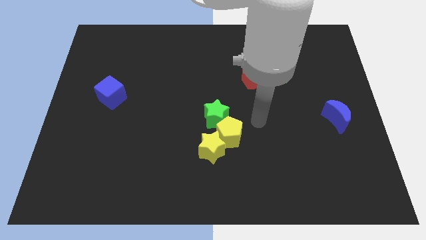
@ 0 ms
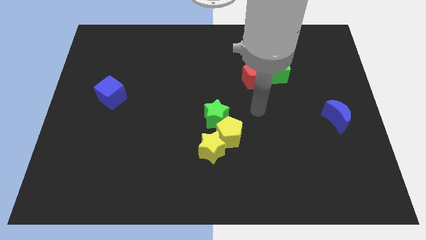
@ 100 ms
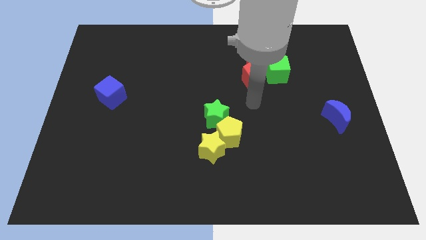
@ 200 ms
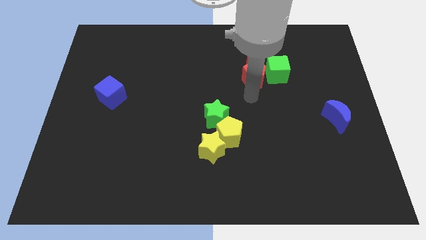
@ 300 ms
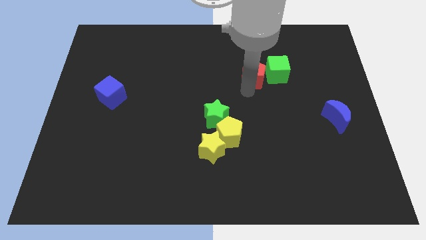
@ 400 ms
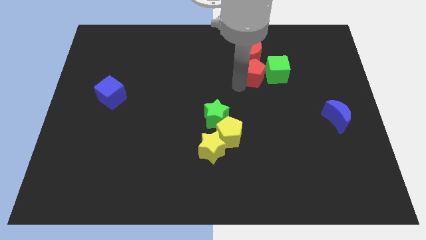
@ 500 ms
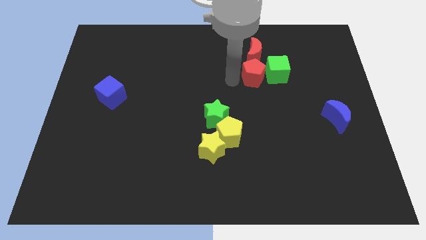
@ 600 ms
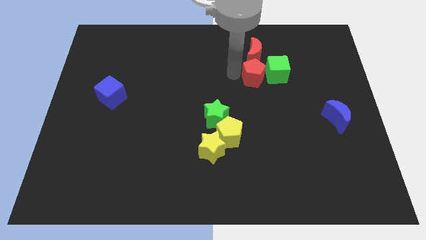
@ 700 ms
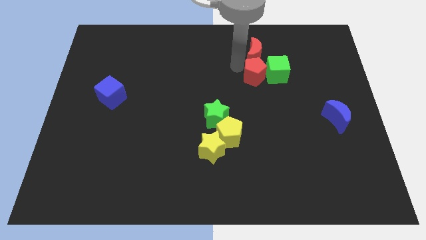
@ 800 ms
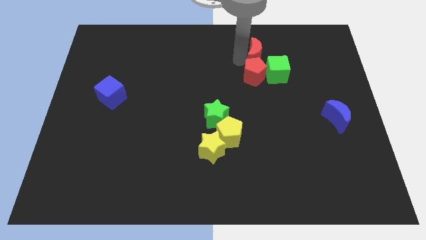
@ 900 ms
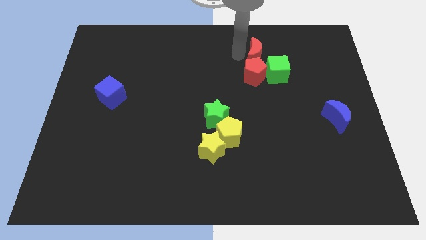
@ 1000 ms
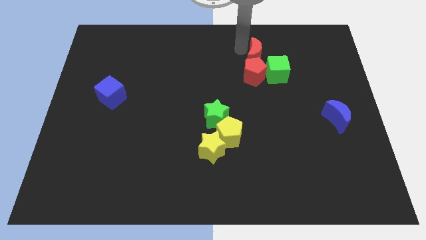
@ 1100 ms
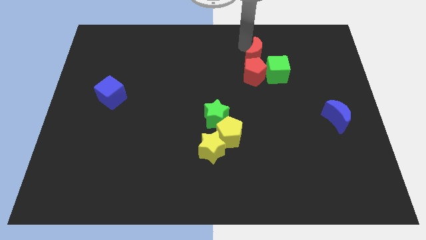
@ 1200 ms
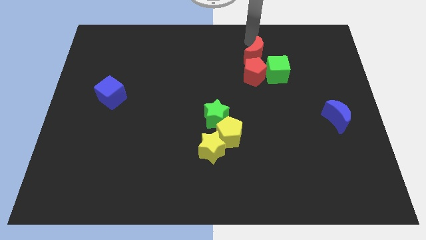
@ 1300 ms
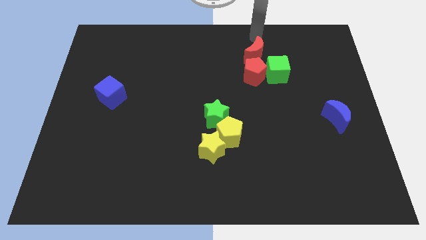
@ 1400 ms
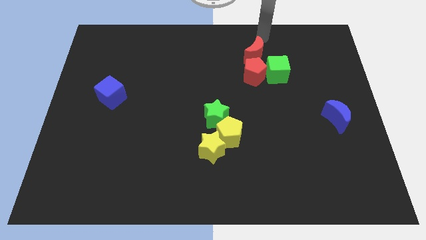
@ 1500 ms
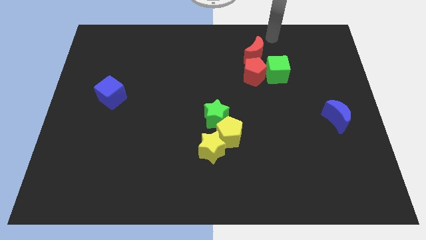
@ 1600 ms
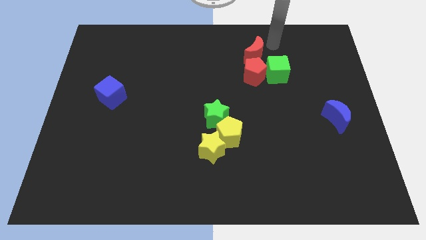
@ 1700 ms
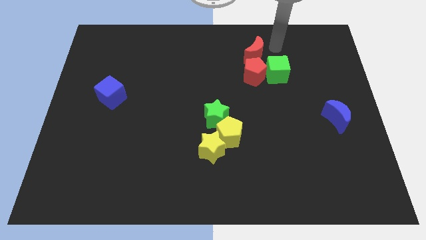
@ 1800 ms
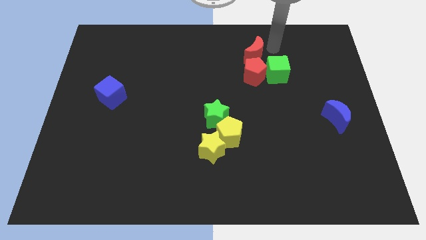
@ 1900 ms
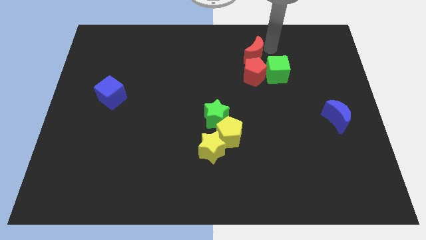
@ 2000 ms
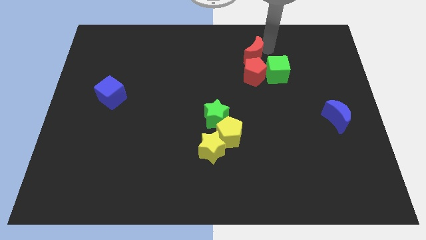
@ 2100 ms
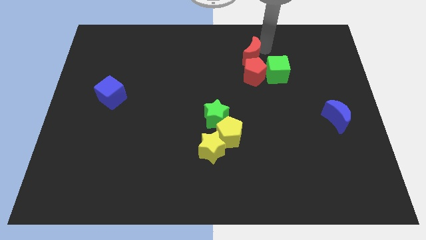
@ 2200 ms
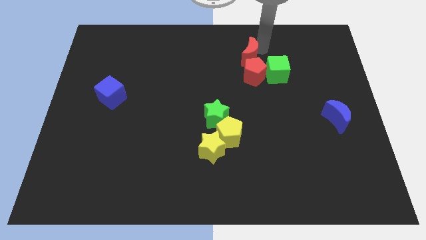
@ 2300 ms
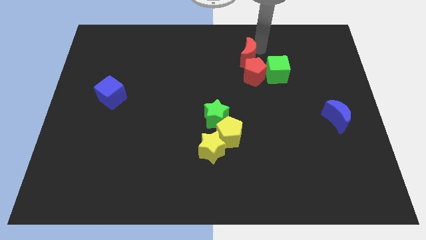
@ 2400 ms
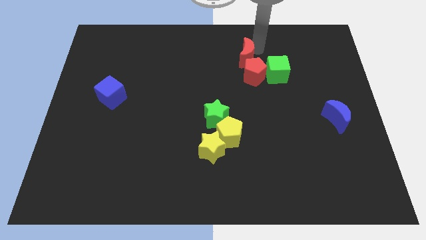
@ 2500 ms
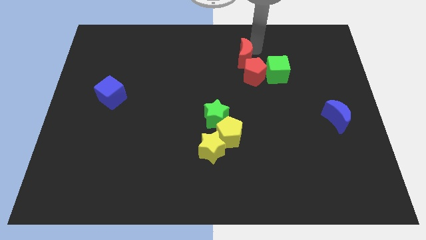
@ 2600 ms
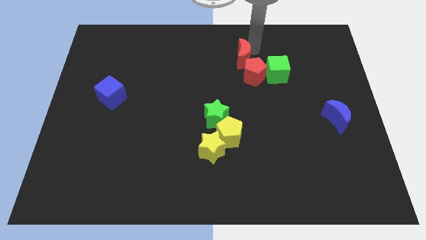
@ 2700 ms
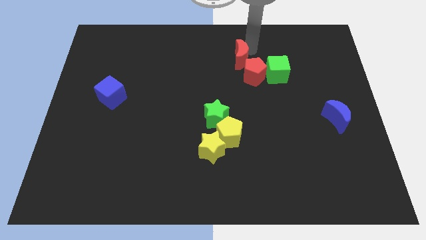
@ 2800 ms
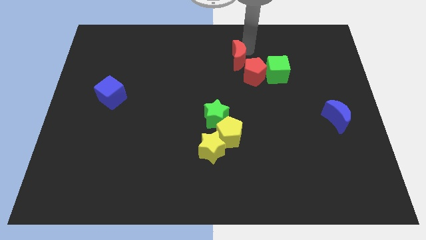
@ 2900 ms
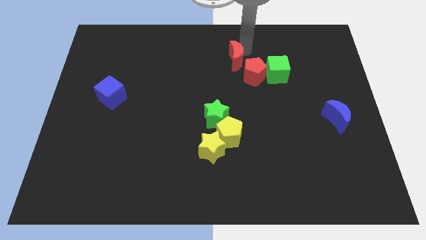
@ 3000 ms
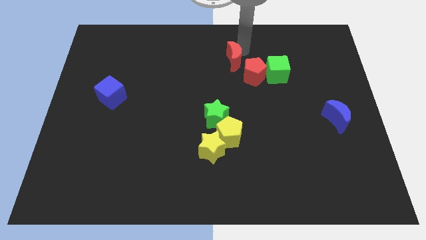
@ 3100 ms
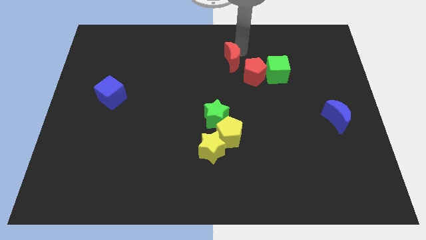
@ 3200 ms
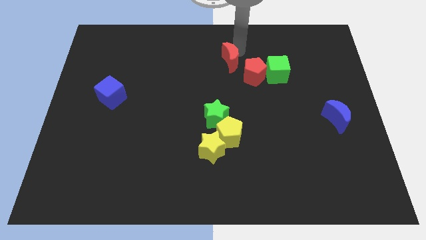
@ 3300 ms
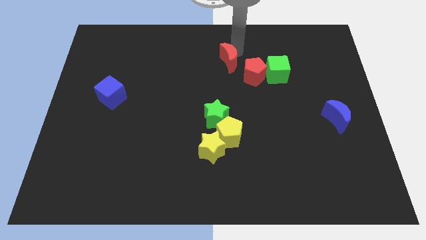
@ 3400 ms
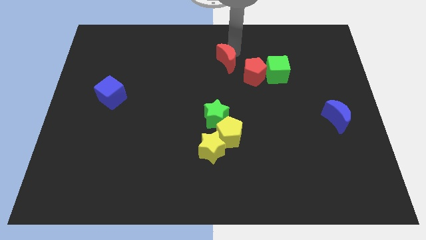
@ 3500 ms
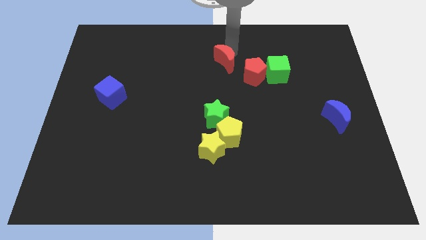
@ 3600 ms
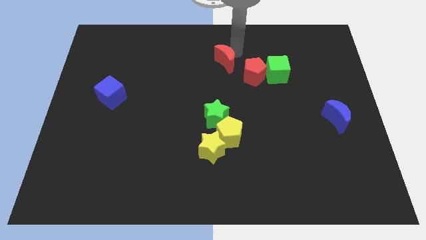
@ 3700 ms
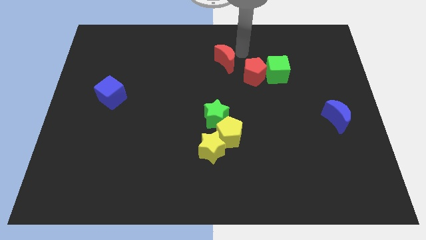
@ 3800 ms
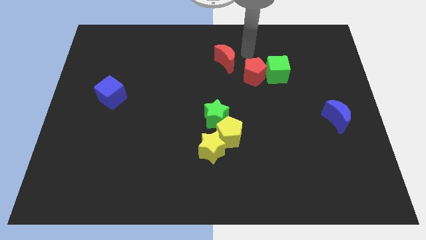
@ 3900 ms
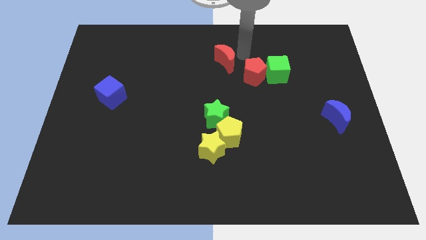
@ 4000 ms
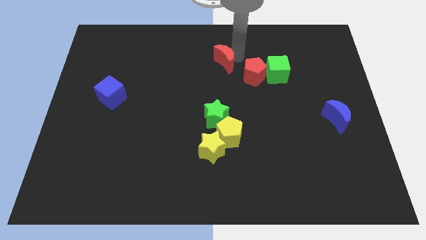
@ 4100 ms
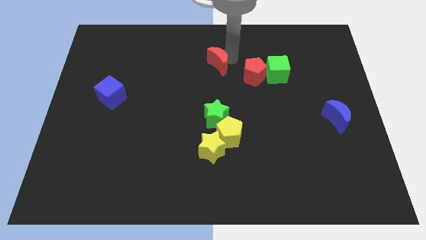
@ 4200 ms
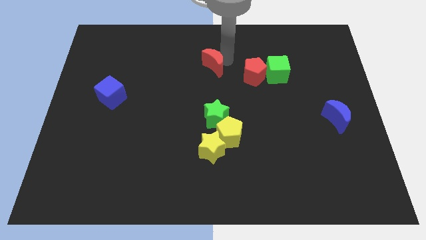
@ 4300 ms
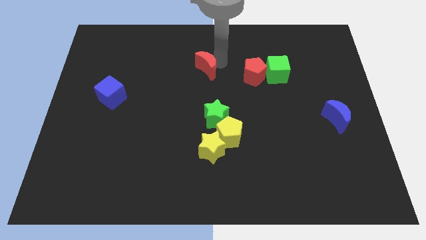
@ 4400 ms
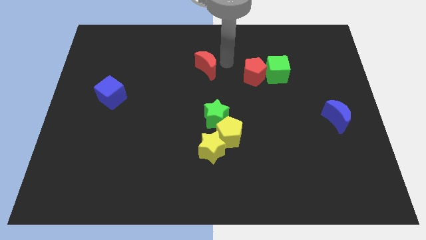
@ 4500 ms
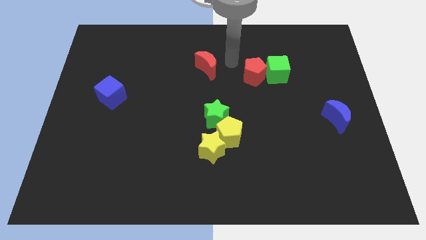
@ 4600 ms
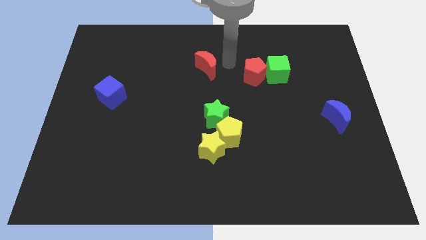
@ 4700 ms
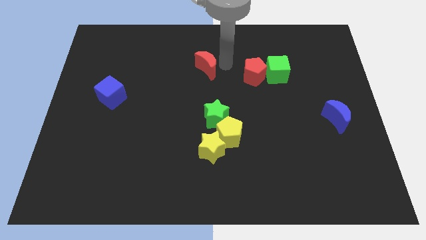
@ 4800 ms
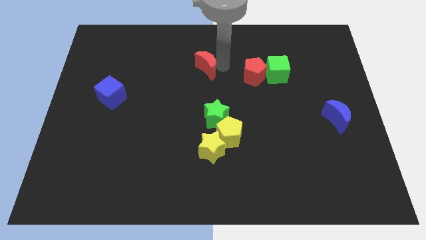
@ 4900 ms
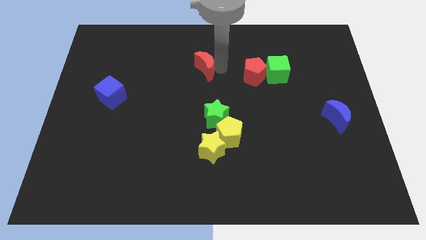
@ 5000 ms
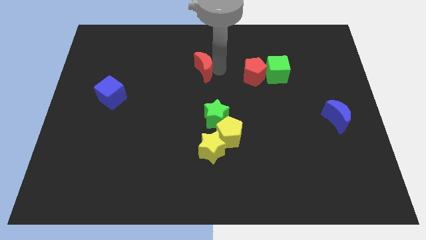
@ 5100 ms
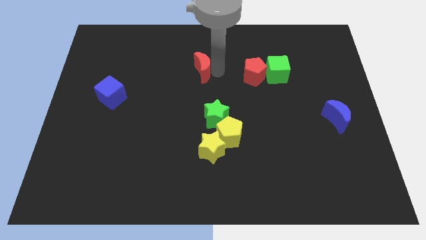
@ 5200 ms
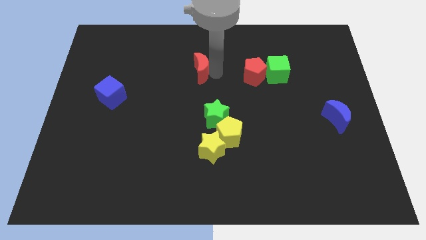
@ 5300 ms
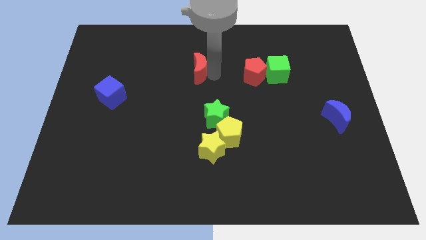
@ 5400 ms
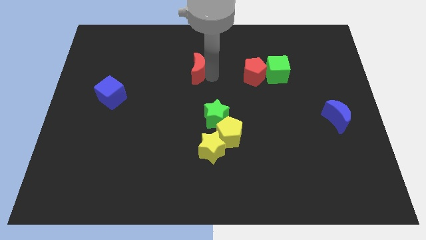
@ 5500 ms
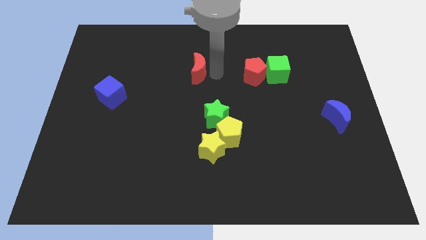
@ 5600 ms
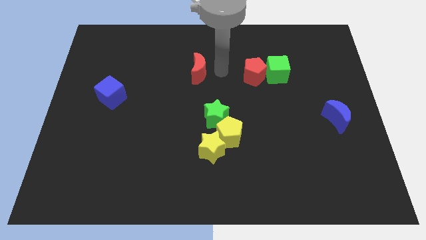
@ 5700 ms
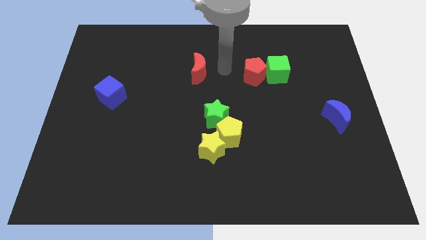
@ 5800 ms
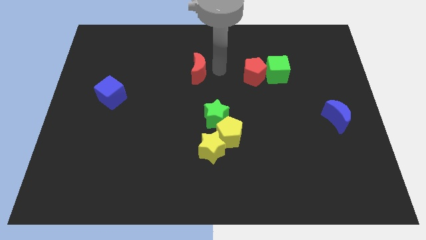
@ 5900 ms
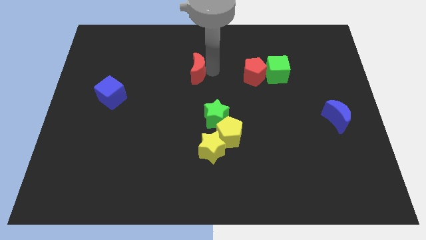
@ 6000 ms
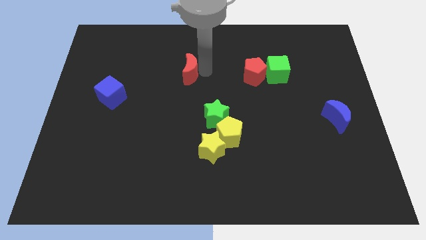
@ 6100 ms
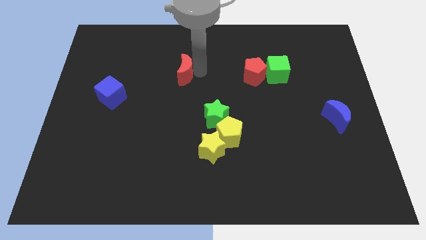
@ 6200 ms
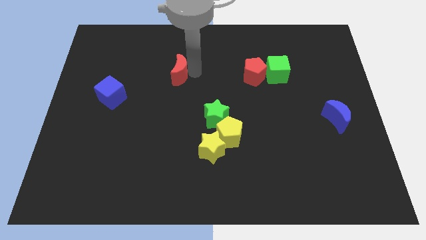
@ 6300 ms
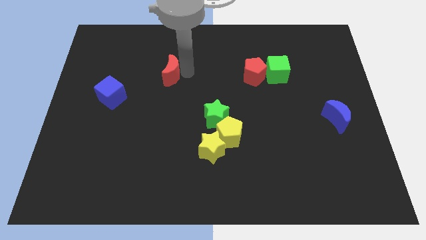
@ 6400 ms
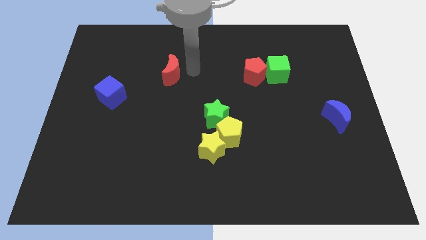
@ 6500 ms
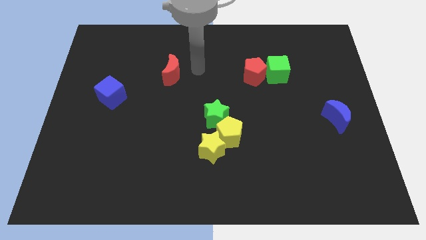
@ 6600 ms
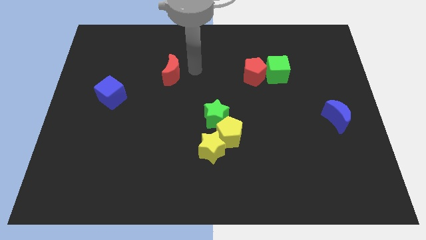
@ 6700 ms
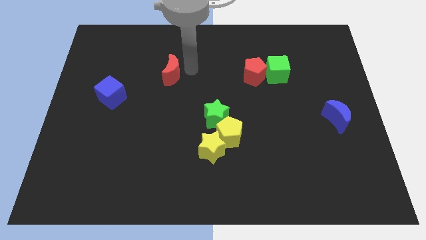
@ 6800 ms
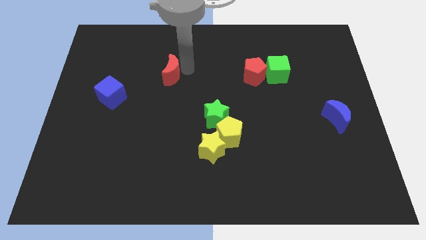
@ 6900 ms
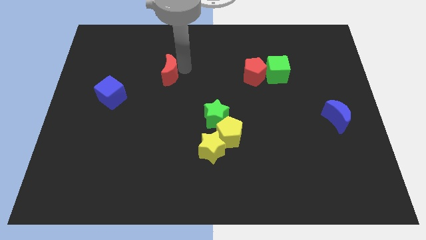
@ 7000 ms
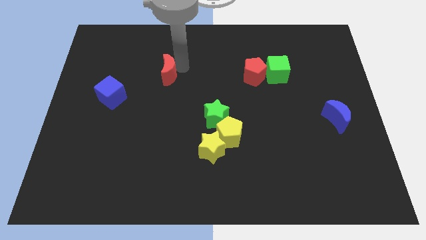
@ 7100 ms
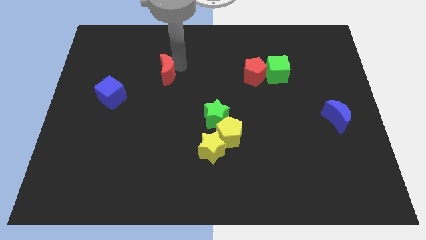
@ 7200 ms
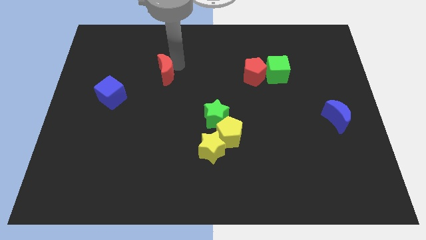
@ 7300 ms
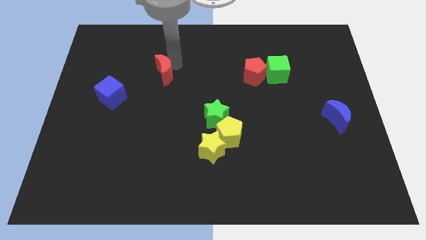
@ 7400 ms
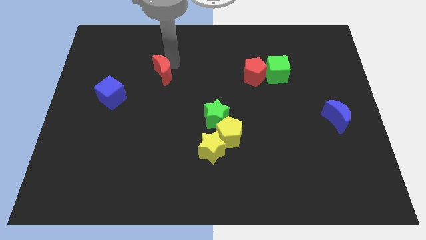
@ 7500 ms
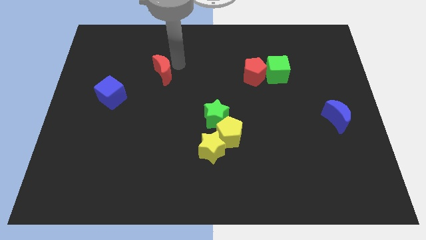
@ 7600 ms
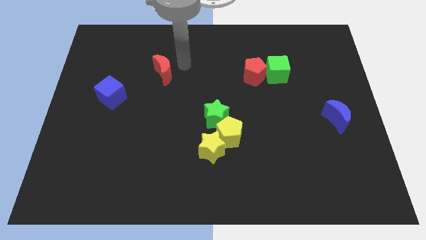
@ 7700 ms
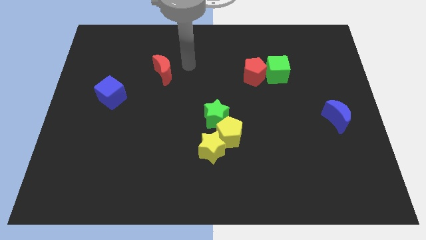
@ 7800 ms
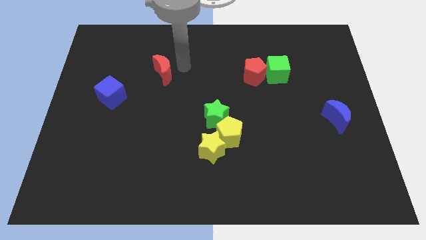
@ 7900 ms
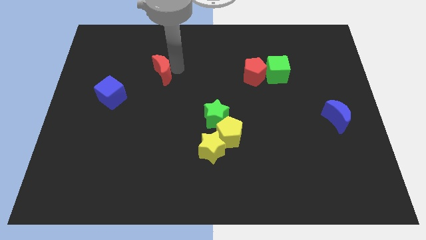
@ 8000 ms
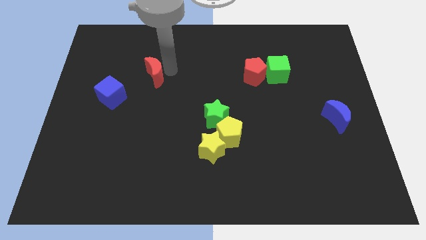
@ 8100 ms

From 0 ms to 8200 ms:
push the red moon to the top right of the blue cube
